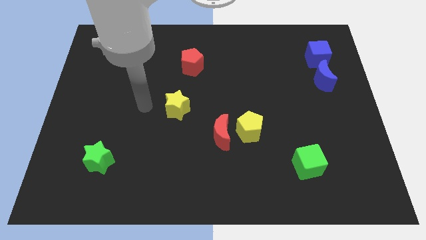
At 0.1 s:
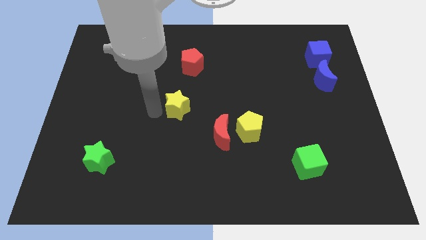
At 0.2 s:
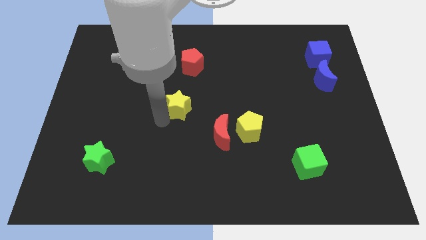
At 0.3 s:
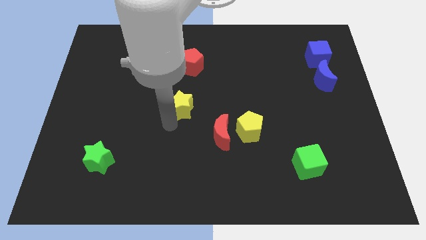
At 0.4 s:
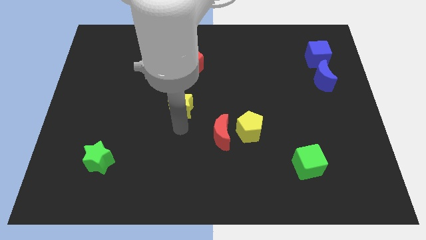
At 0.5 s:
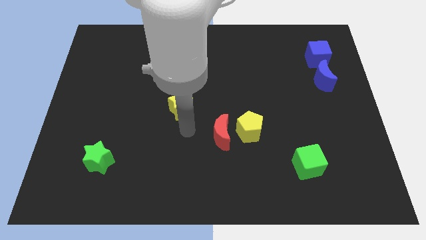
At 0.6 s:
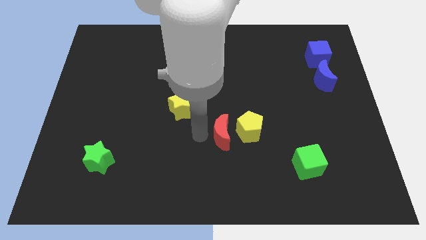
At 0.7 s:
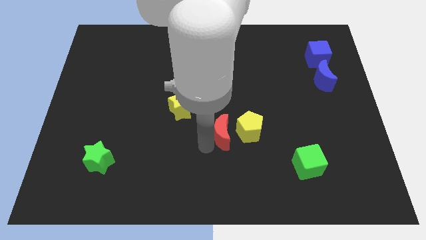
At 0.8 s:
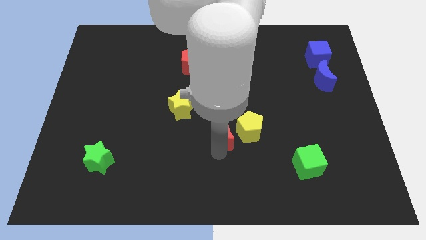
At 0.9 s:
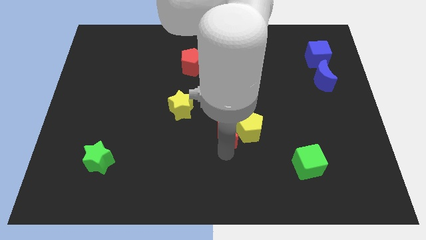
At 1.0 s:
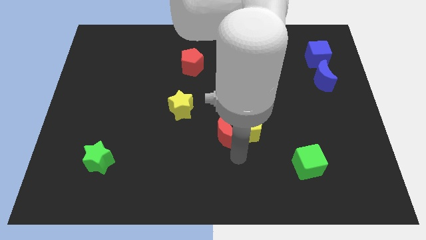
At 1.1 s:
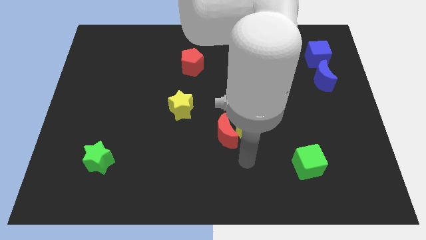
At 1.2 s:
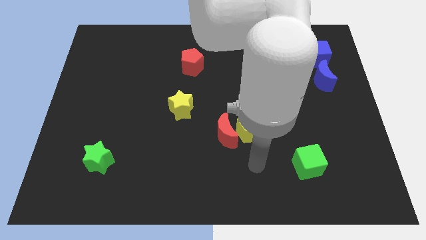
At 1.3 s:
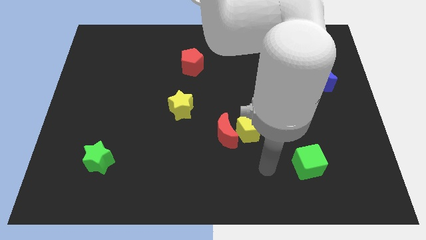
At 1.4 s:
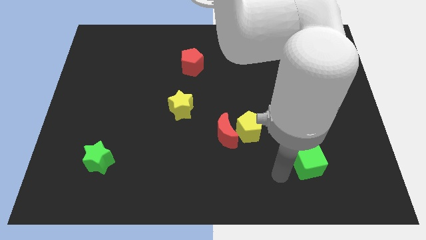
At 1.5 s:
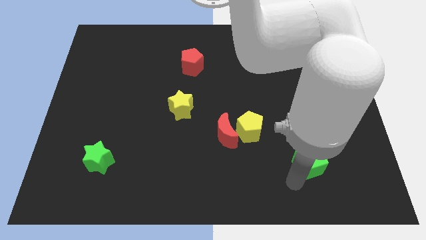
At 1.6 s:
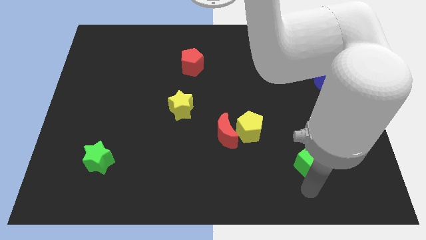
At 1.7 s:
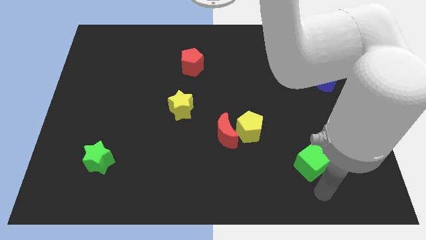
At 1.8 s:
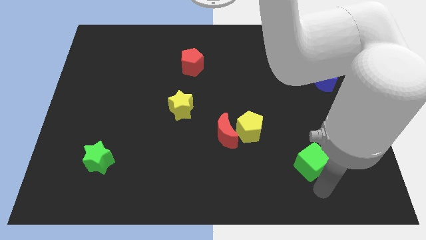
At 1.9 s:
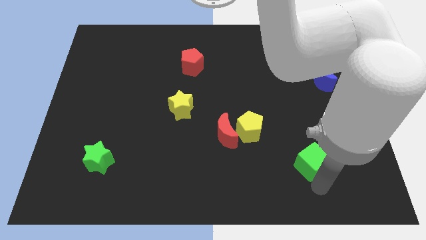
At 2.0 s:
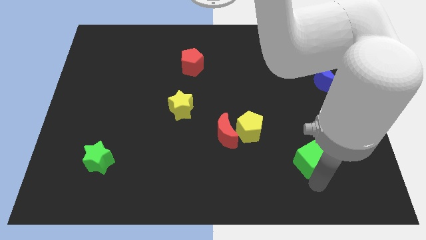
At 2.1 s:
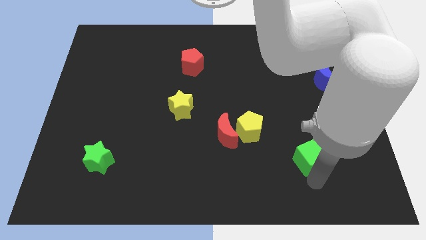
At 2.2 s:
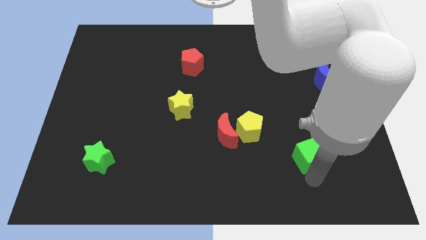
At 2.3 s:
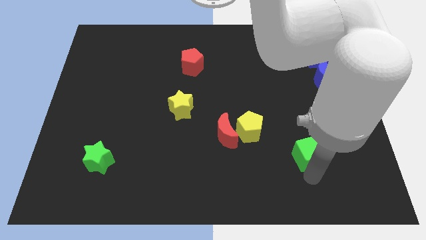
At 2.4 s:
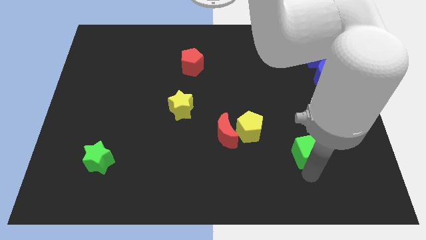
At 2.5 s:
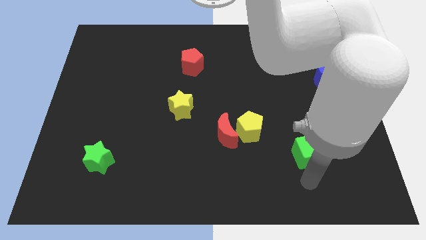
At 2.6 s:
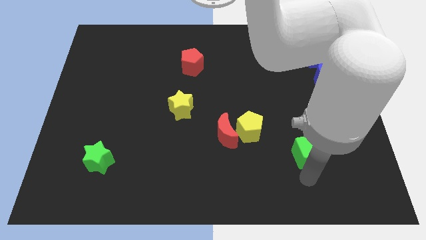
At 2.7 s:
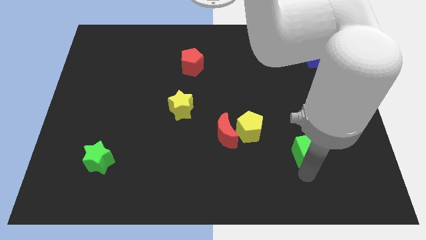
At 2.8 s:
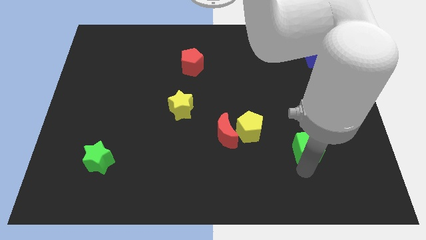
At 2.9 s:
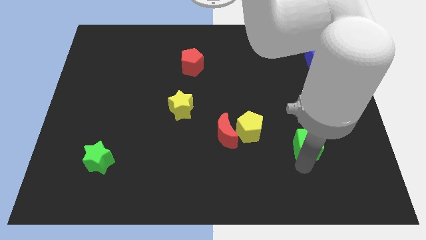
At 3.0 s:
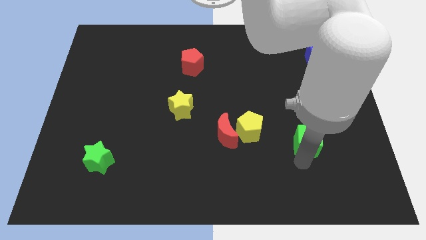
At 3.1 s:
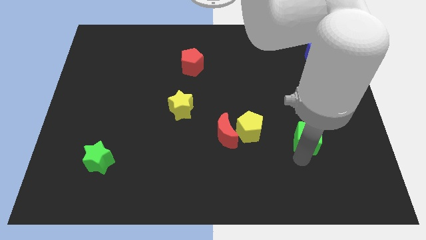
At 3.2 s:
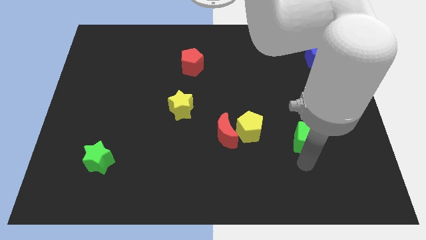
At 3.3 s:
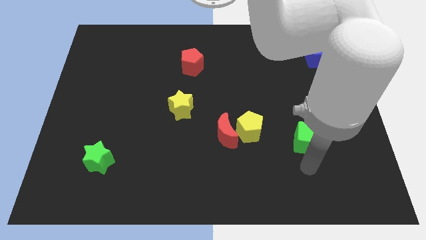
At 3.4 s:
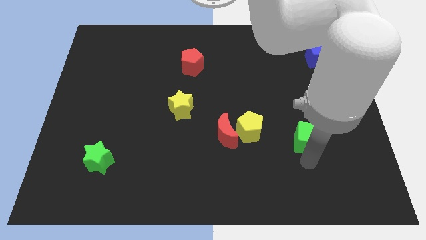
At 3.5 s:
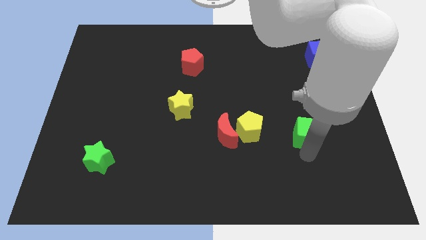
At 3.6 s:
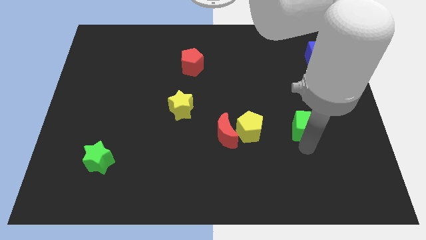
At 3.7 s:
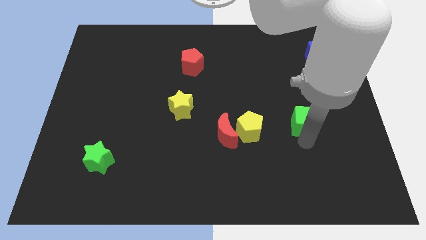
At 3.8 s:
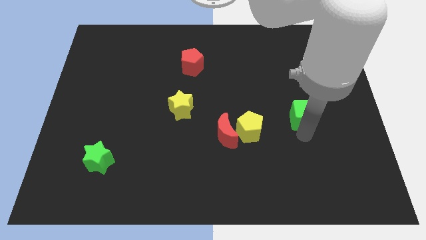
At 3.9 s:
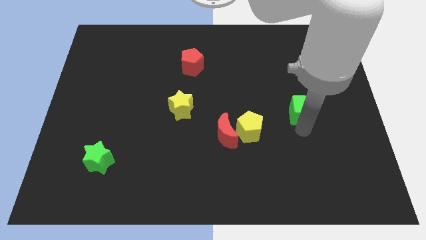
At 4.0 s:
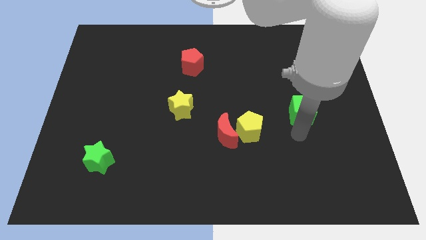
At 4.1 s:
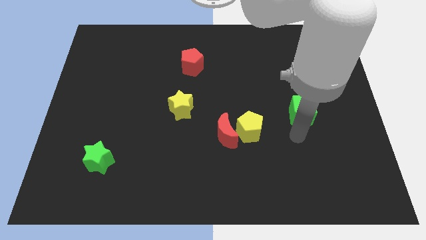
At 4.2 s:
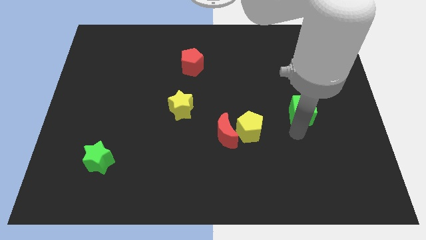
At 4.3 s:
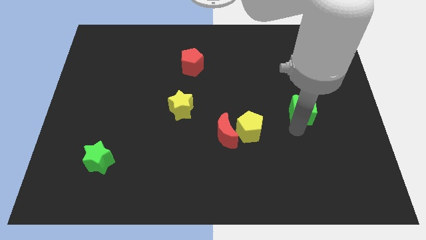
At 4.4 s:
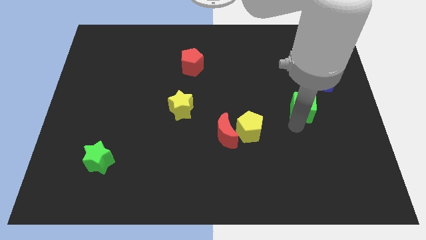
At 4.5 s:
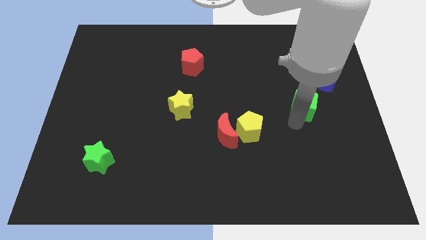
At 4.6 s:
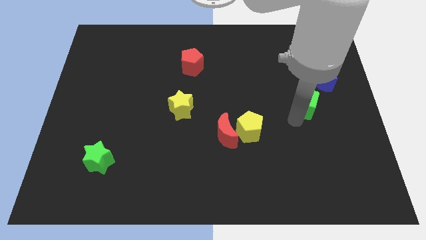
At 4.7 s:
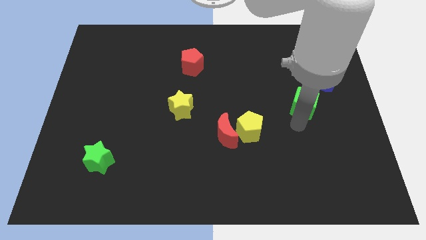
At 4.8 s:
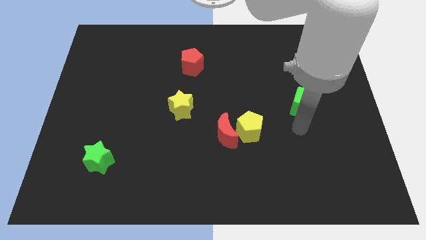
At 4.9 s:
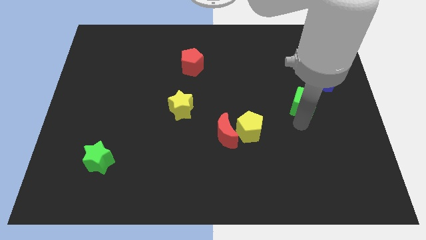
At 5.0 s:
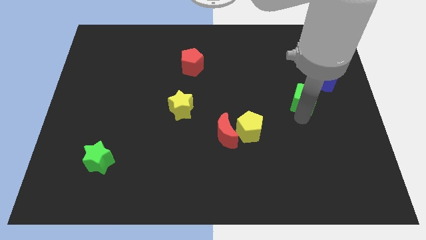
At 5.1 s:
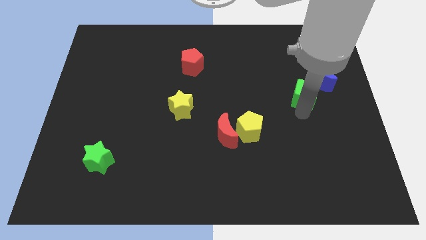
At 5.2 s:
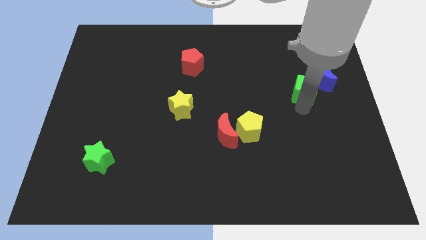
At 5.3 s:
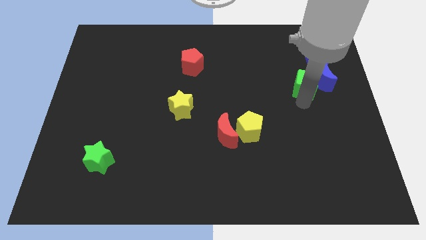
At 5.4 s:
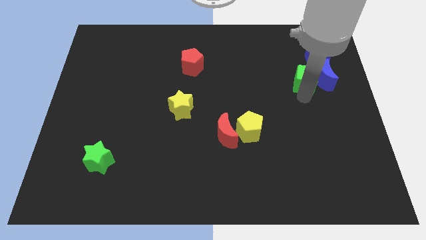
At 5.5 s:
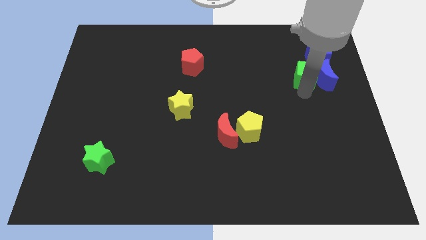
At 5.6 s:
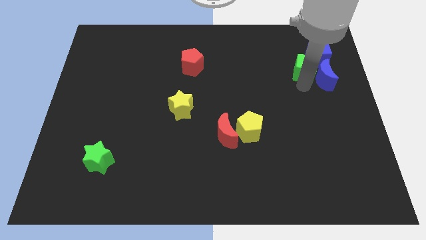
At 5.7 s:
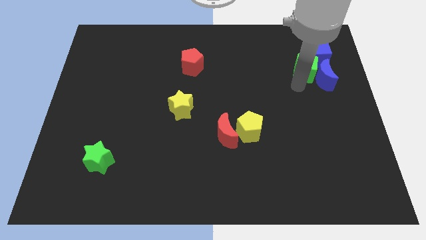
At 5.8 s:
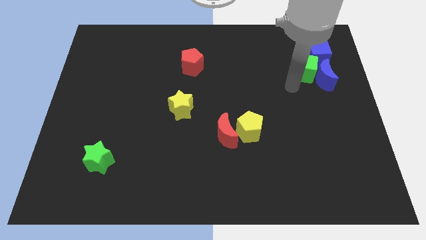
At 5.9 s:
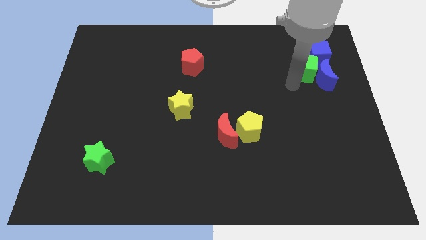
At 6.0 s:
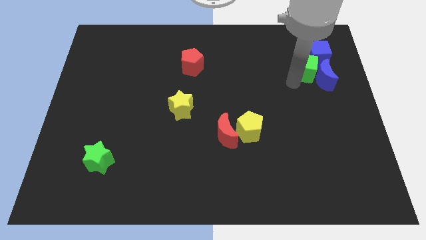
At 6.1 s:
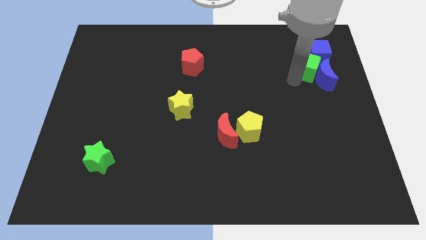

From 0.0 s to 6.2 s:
push the green cube towards the blue cube

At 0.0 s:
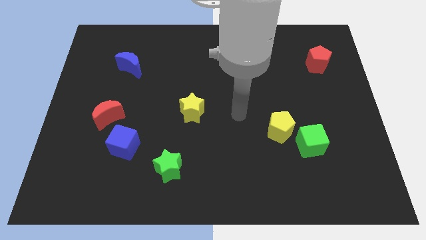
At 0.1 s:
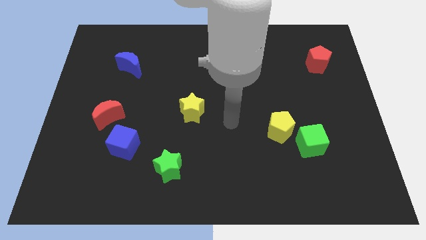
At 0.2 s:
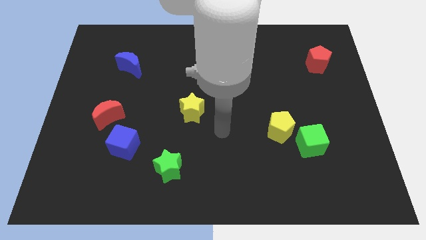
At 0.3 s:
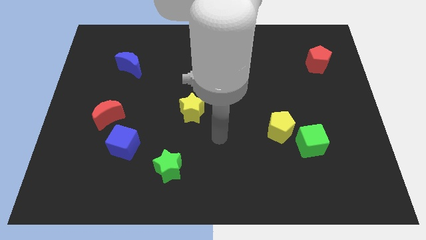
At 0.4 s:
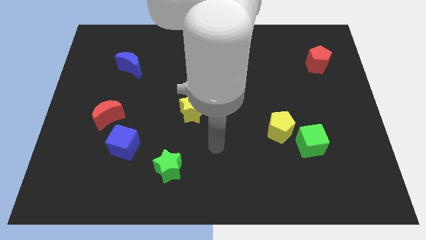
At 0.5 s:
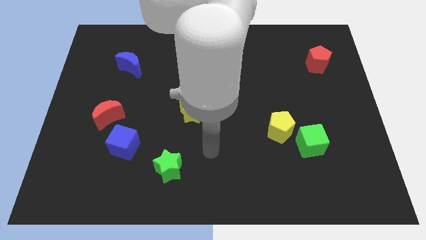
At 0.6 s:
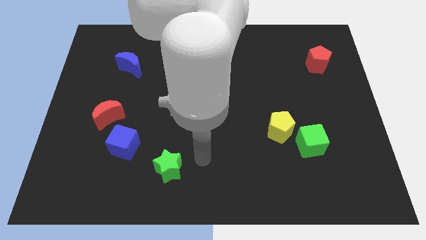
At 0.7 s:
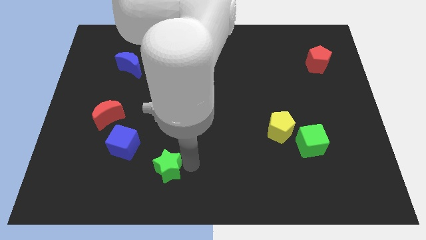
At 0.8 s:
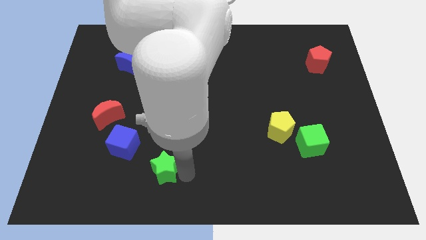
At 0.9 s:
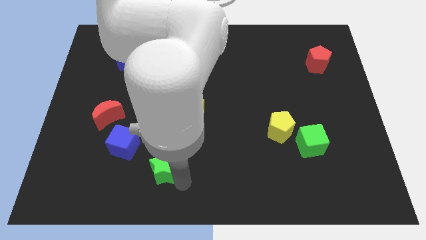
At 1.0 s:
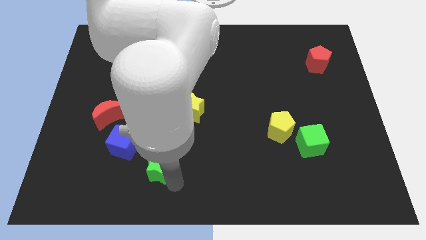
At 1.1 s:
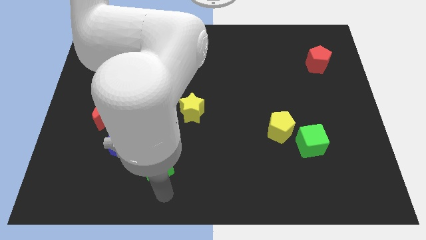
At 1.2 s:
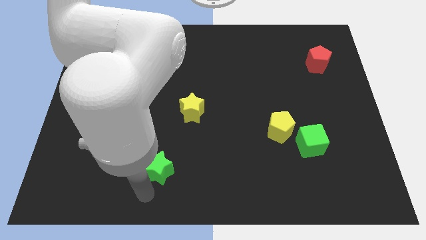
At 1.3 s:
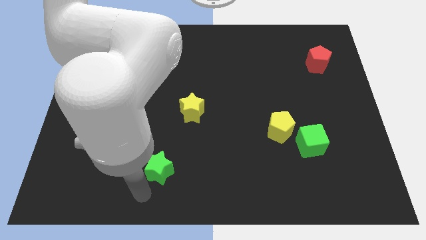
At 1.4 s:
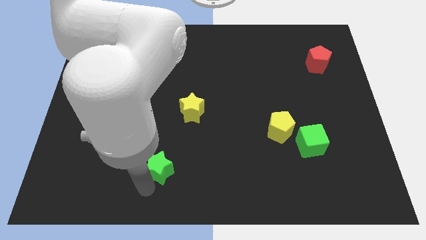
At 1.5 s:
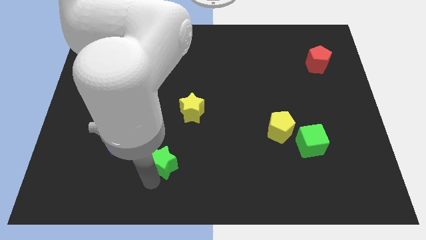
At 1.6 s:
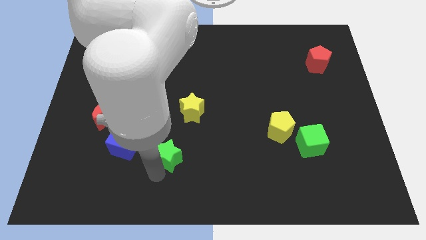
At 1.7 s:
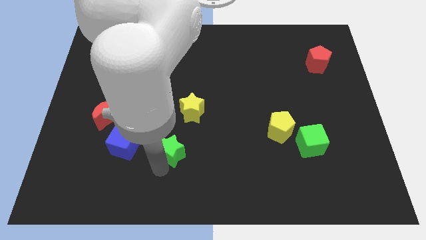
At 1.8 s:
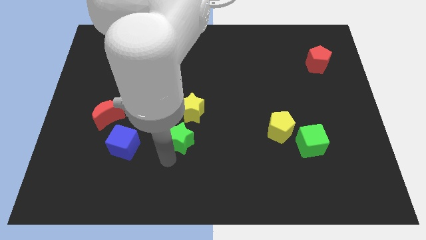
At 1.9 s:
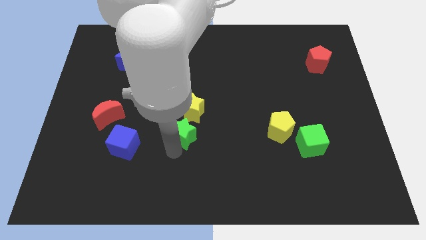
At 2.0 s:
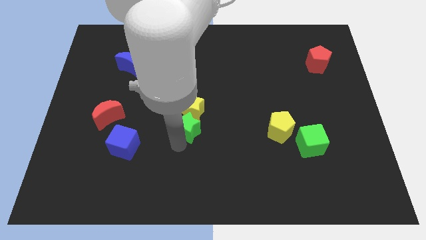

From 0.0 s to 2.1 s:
put the green star close to the yellow star
